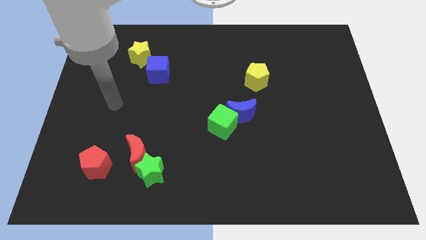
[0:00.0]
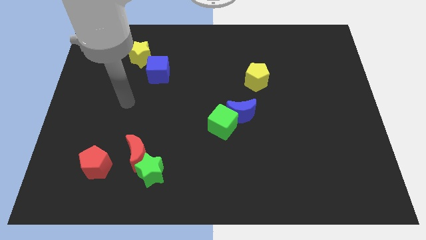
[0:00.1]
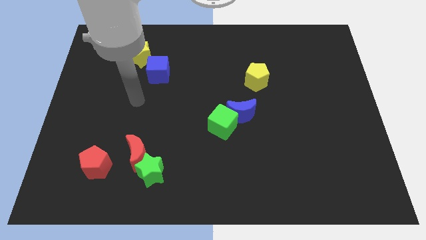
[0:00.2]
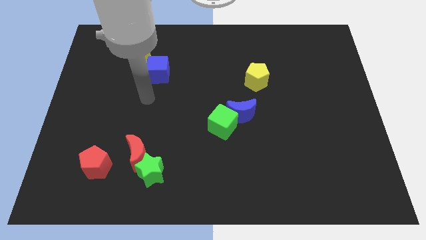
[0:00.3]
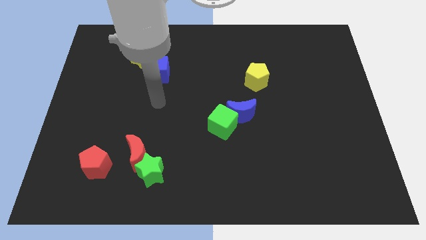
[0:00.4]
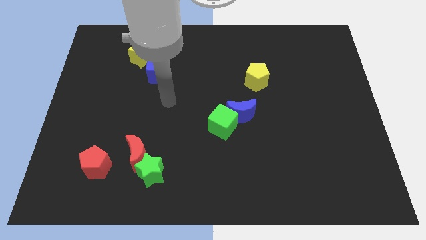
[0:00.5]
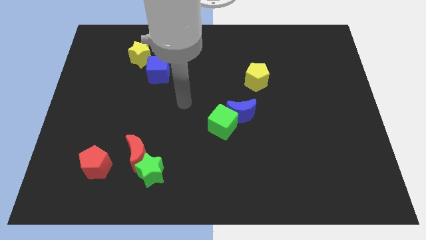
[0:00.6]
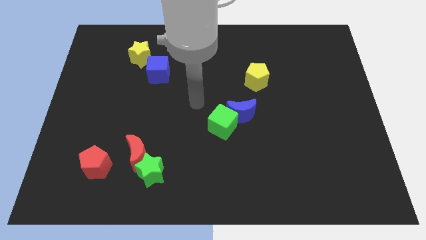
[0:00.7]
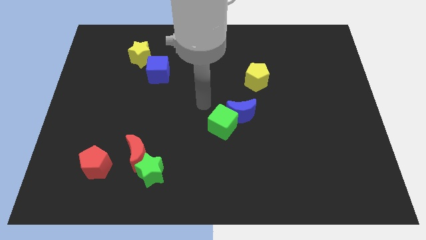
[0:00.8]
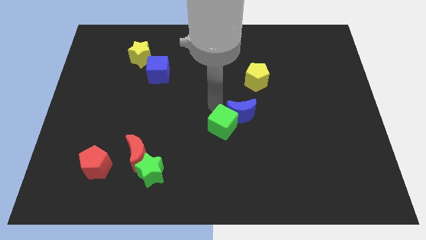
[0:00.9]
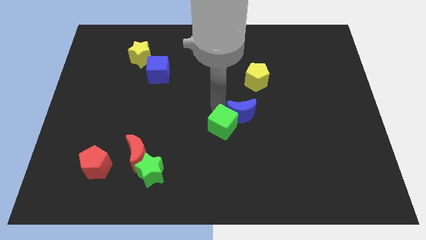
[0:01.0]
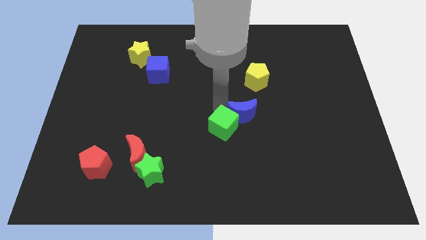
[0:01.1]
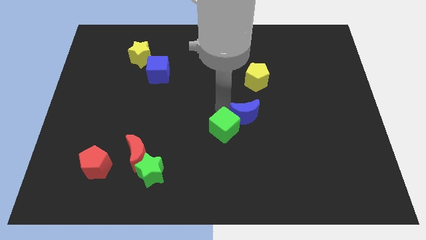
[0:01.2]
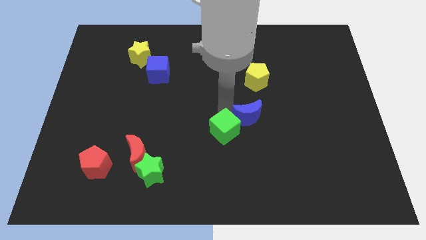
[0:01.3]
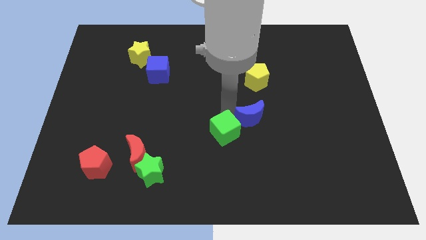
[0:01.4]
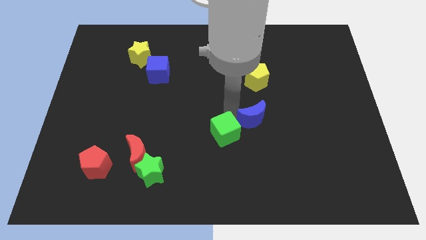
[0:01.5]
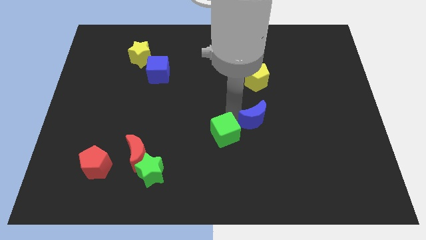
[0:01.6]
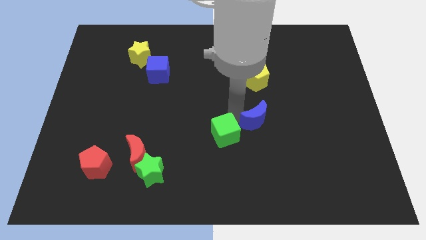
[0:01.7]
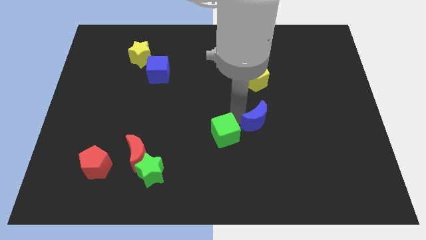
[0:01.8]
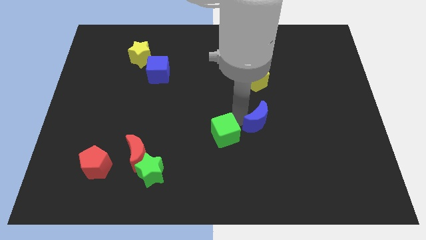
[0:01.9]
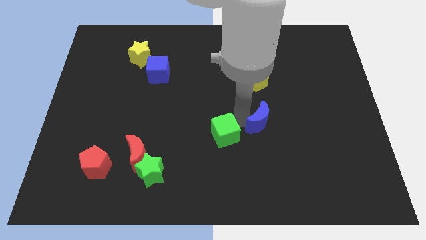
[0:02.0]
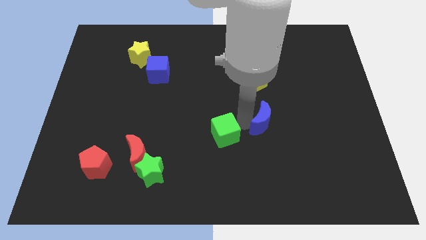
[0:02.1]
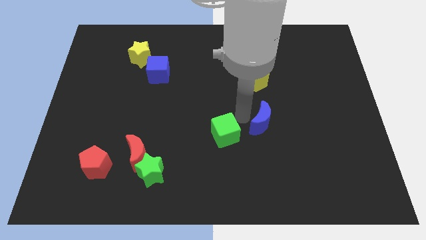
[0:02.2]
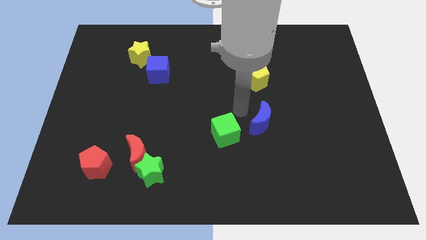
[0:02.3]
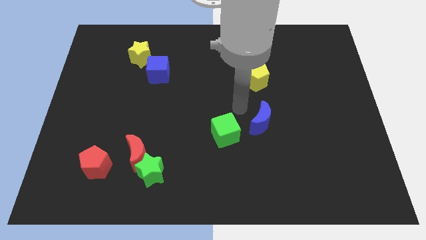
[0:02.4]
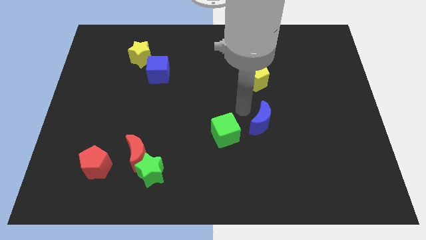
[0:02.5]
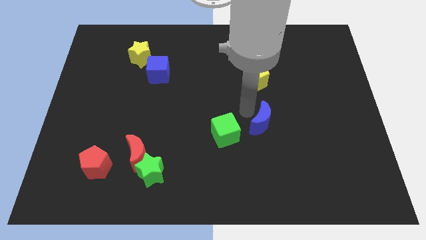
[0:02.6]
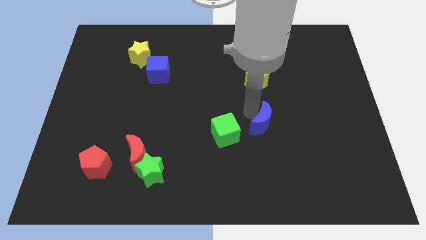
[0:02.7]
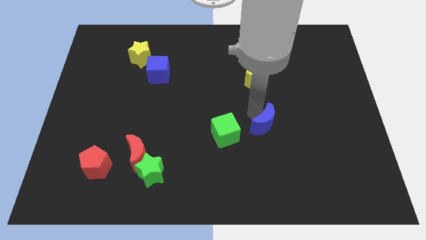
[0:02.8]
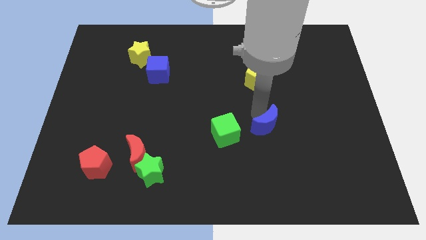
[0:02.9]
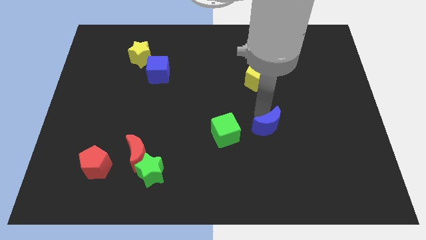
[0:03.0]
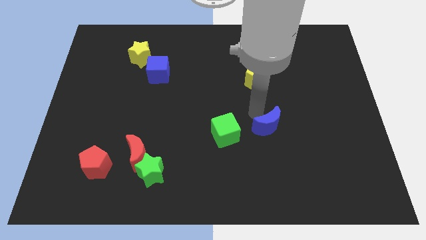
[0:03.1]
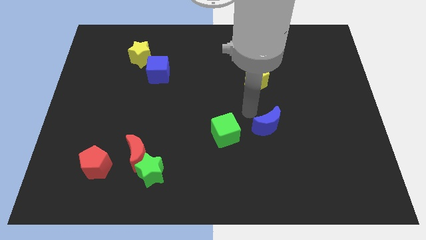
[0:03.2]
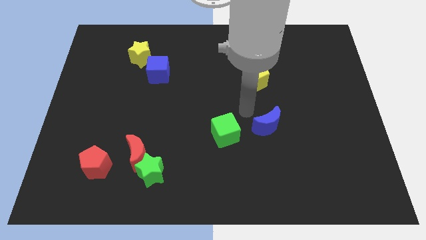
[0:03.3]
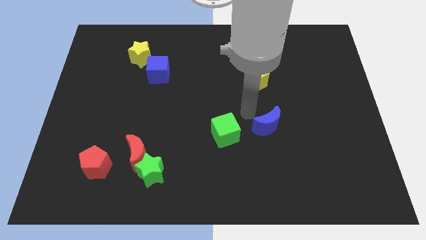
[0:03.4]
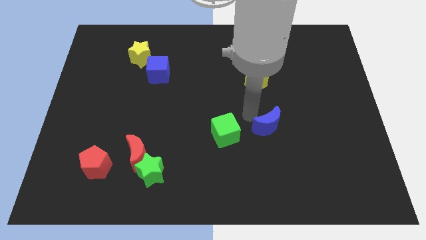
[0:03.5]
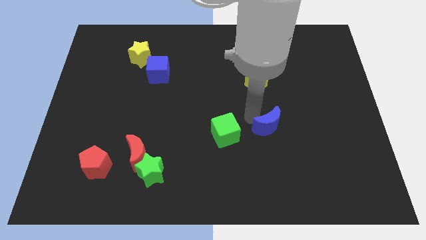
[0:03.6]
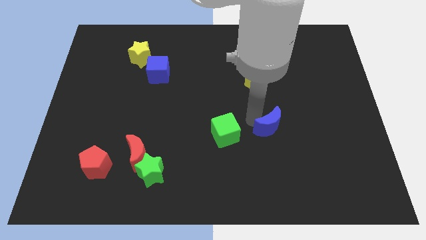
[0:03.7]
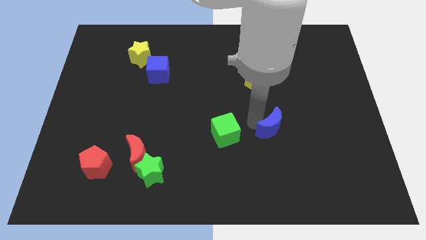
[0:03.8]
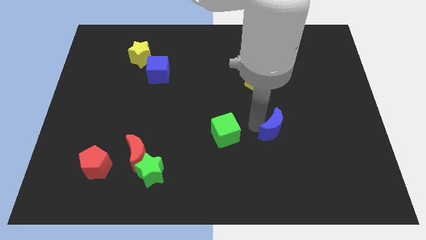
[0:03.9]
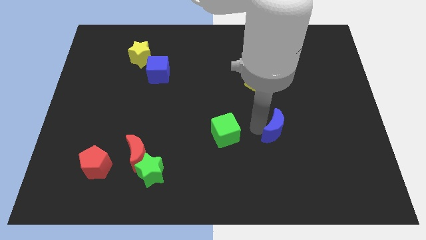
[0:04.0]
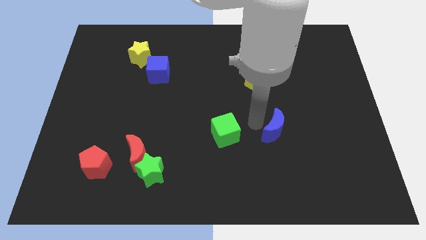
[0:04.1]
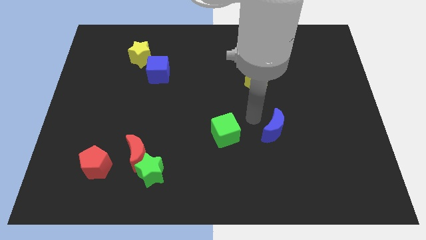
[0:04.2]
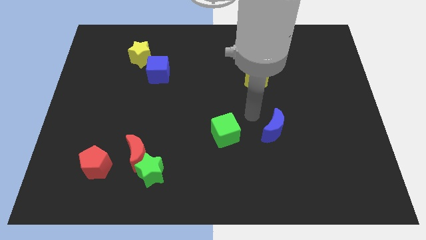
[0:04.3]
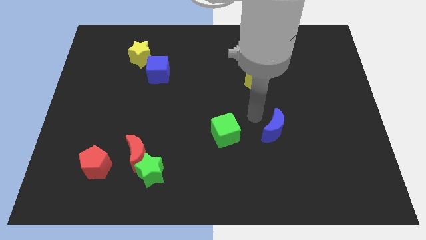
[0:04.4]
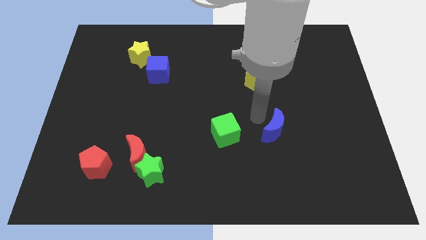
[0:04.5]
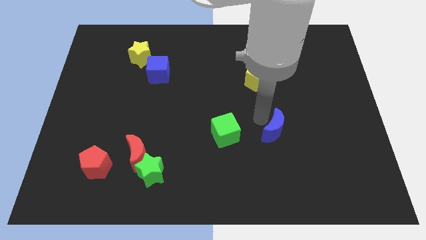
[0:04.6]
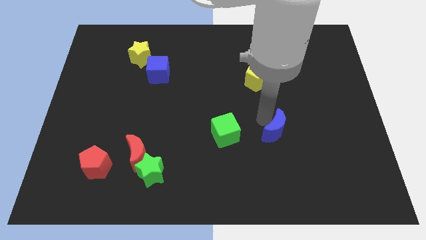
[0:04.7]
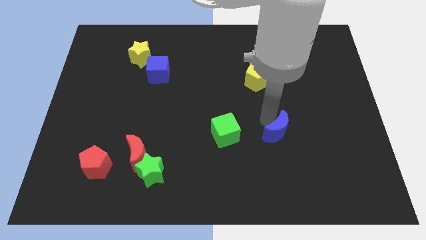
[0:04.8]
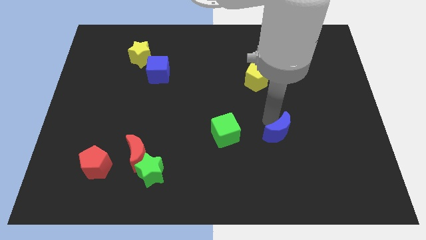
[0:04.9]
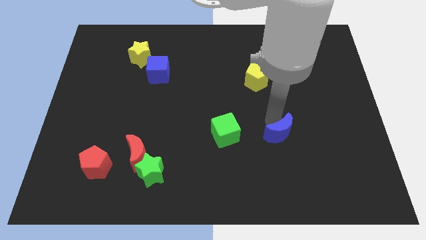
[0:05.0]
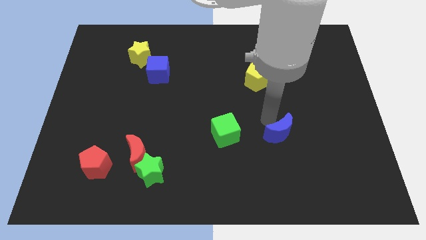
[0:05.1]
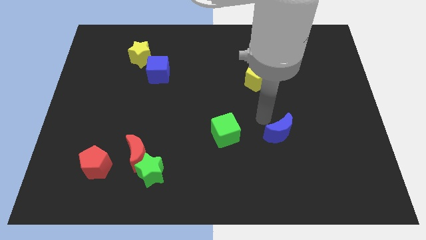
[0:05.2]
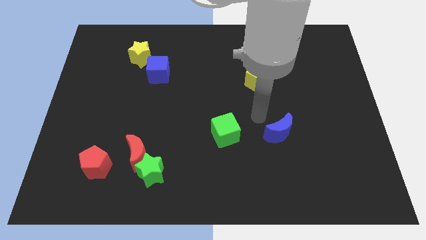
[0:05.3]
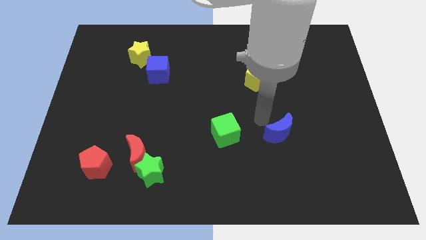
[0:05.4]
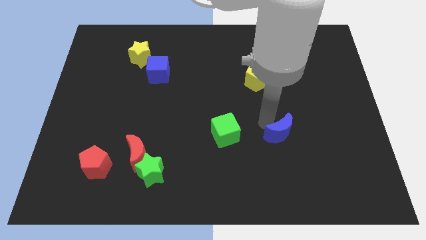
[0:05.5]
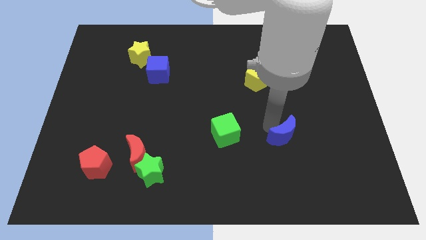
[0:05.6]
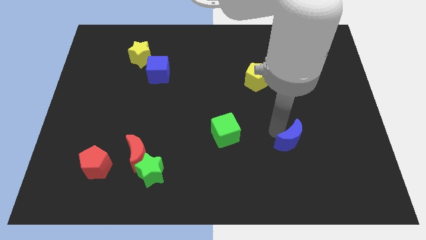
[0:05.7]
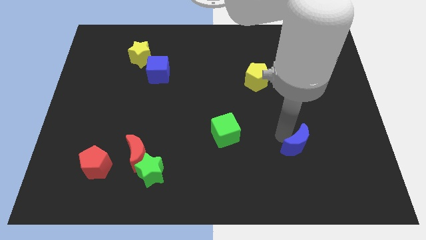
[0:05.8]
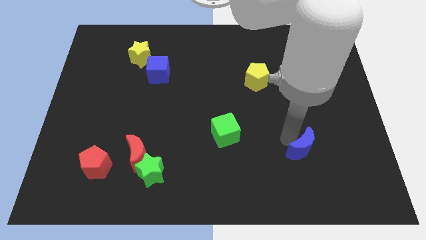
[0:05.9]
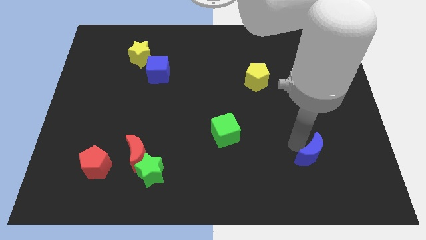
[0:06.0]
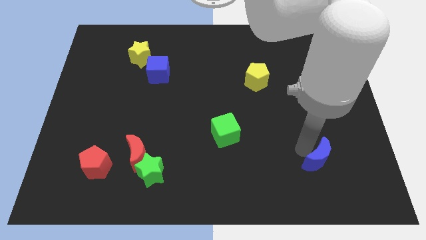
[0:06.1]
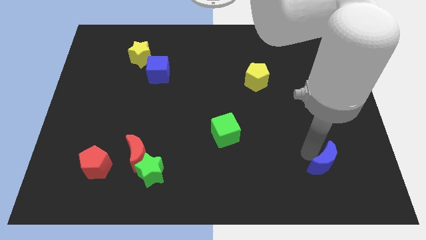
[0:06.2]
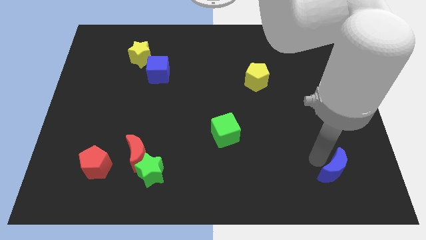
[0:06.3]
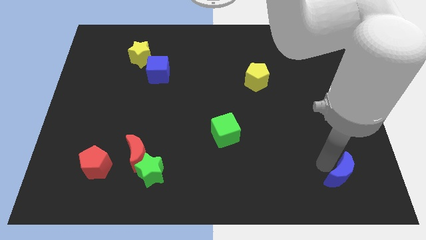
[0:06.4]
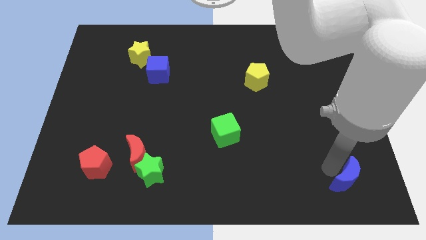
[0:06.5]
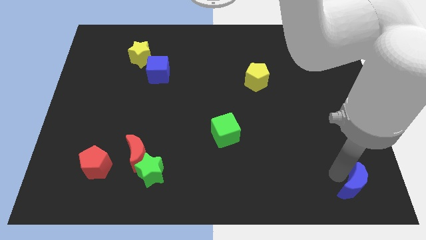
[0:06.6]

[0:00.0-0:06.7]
slide the blue moon to the bottom right of the board
